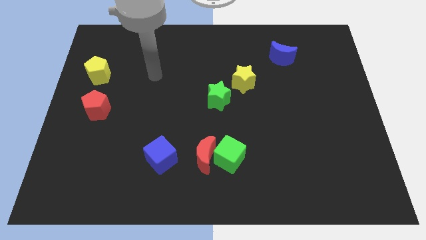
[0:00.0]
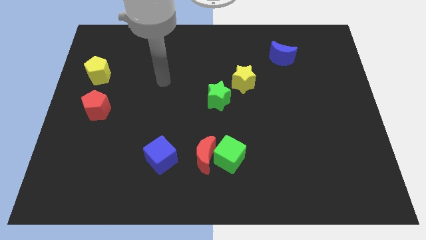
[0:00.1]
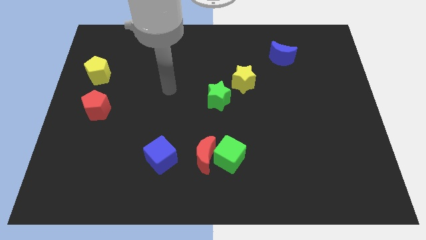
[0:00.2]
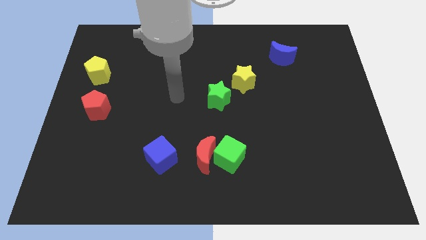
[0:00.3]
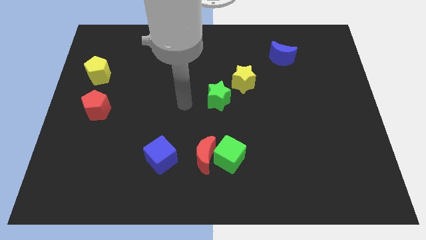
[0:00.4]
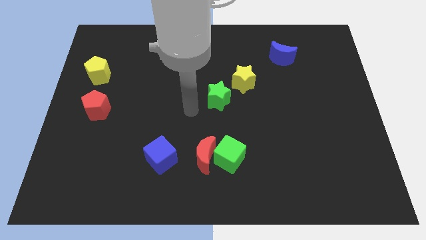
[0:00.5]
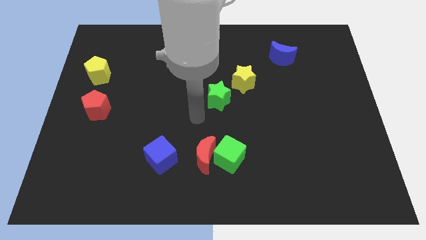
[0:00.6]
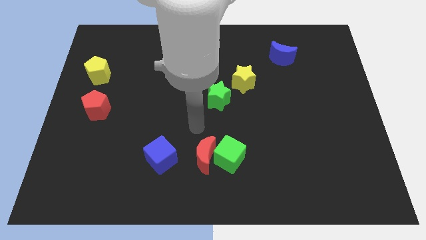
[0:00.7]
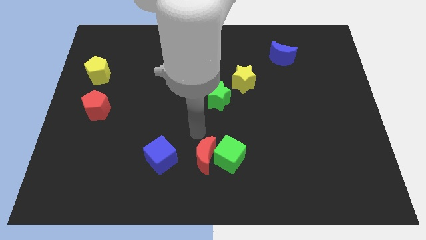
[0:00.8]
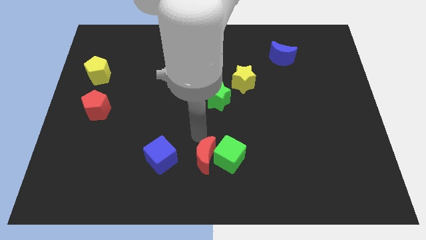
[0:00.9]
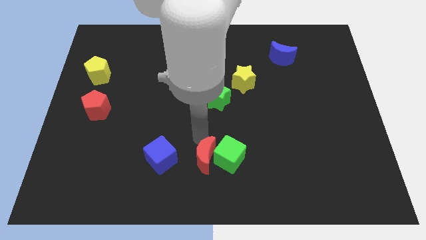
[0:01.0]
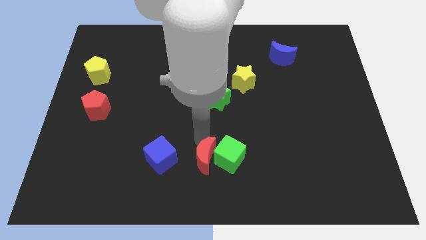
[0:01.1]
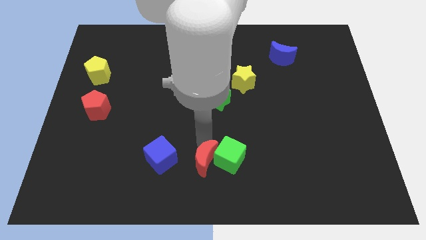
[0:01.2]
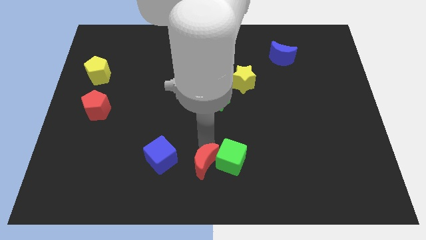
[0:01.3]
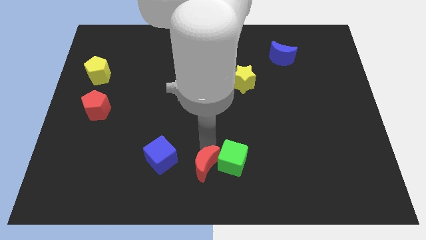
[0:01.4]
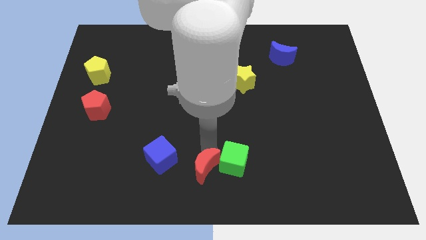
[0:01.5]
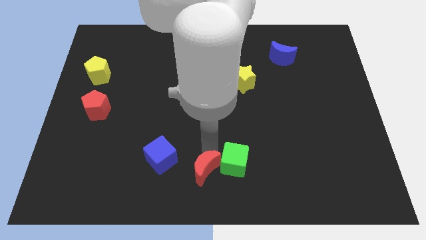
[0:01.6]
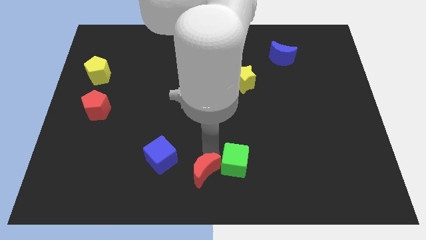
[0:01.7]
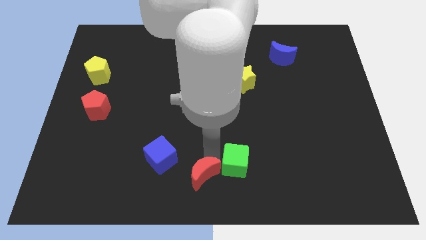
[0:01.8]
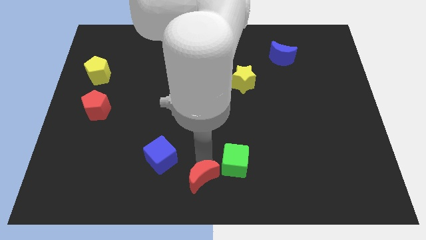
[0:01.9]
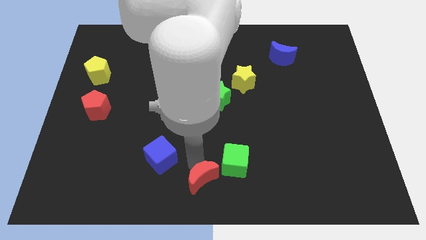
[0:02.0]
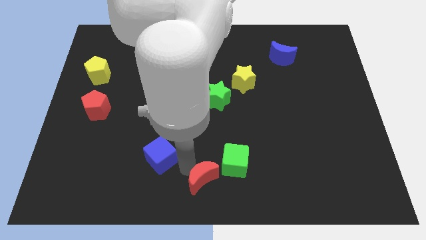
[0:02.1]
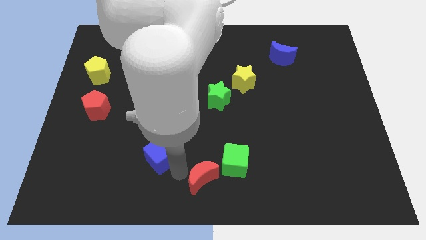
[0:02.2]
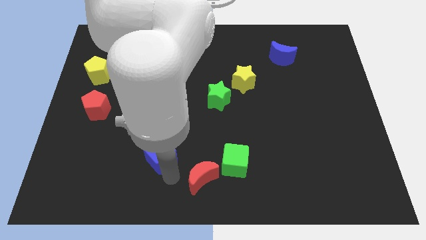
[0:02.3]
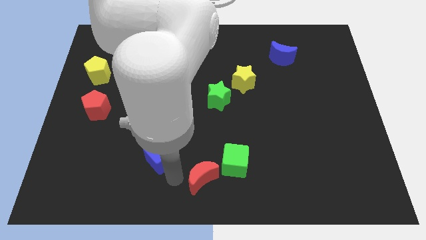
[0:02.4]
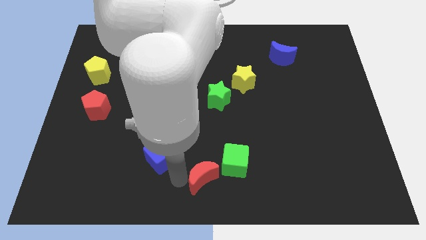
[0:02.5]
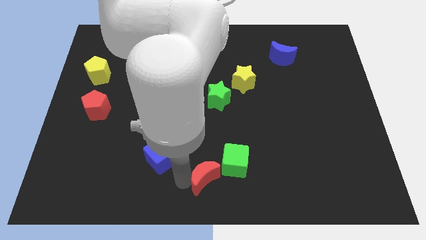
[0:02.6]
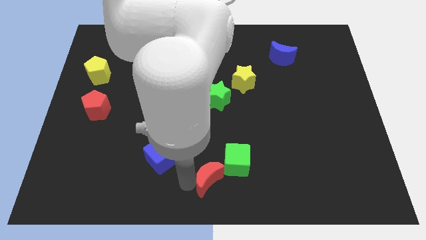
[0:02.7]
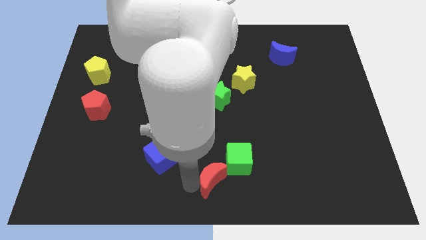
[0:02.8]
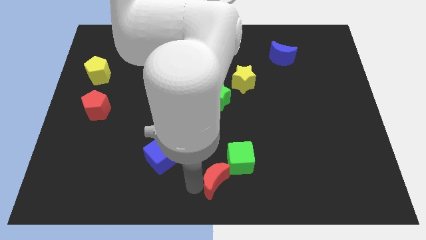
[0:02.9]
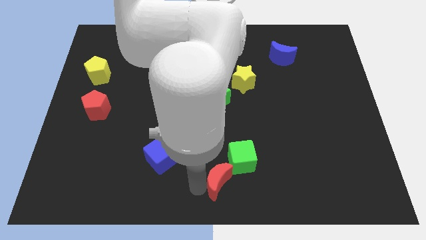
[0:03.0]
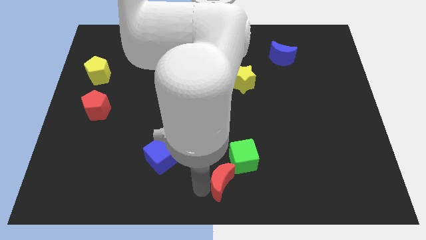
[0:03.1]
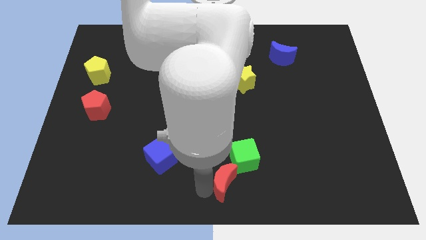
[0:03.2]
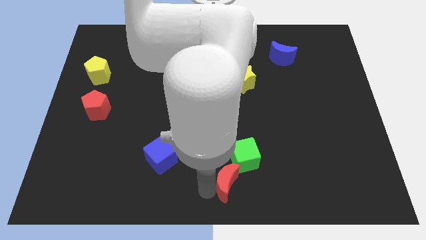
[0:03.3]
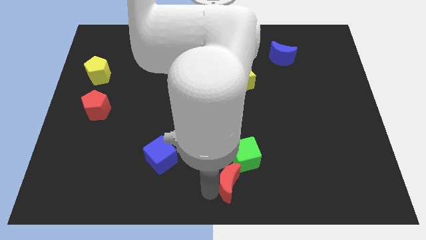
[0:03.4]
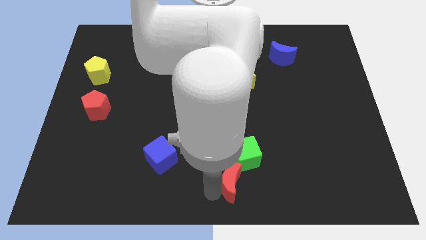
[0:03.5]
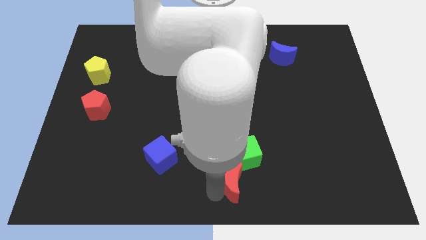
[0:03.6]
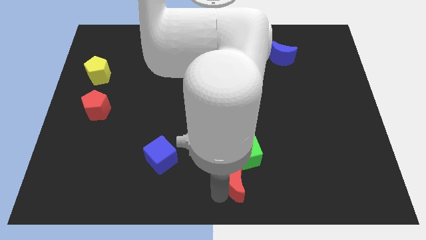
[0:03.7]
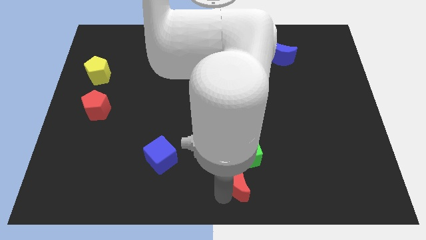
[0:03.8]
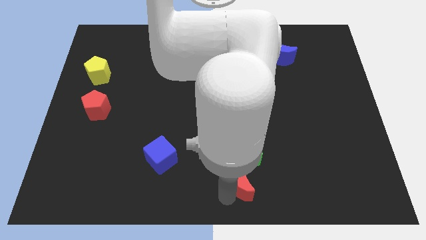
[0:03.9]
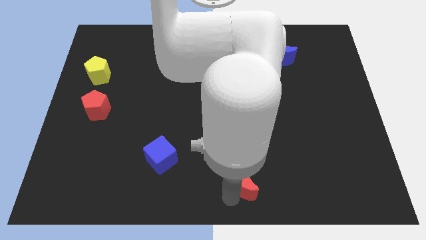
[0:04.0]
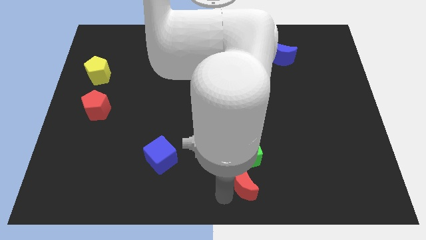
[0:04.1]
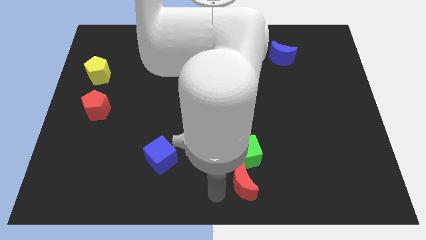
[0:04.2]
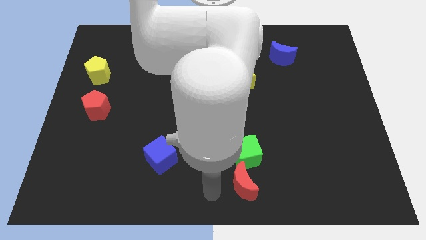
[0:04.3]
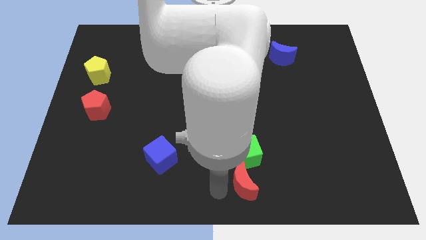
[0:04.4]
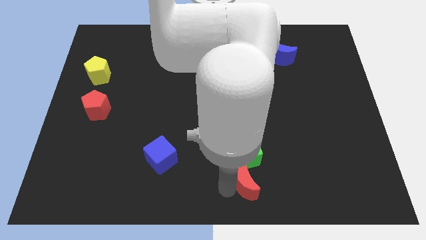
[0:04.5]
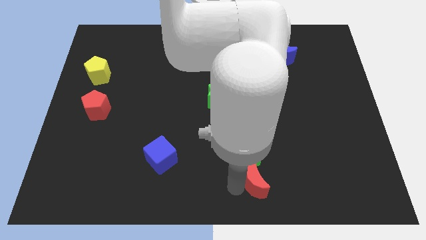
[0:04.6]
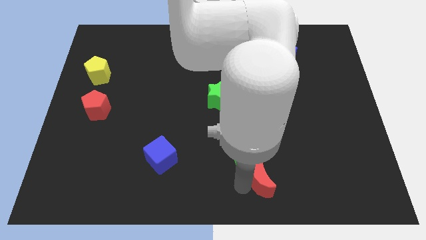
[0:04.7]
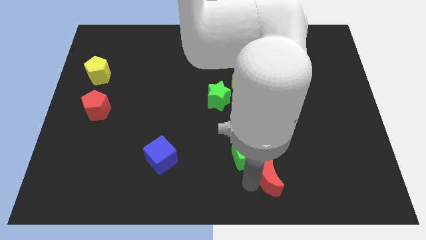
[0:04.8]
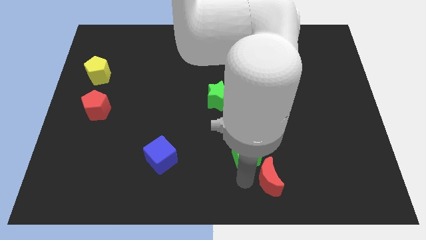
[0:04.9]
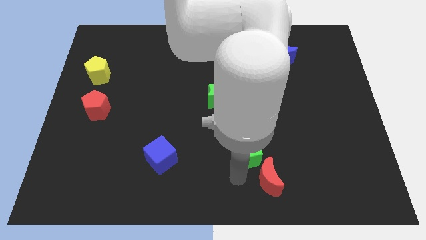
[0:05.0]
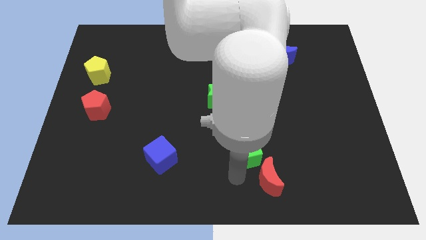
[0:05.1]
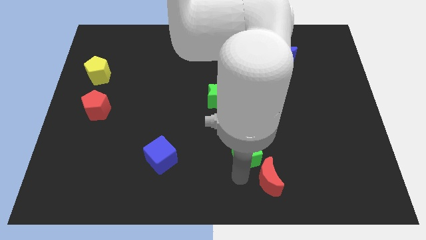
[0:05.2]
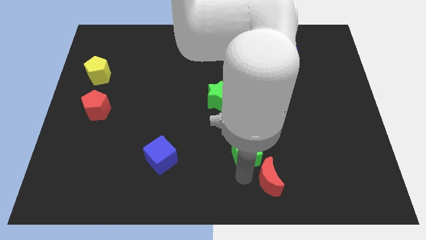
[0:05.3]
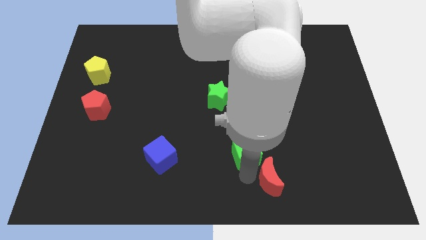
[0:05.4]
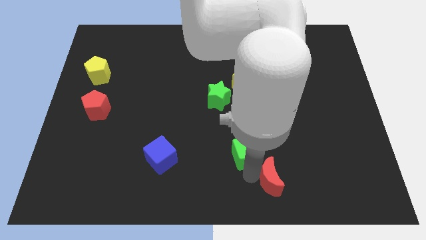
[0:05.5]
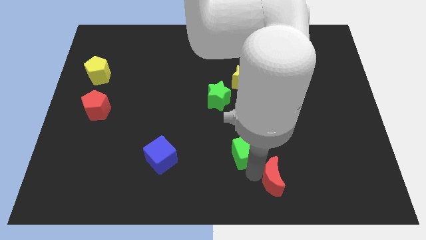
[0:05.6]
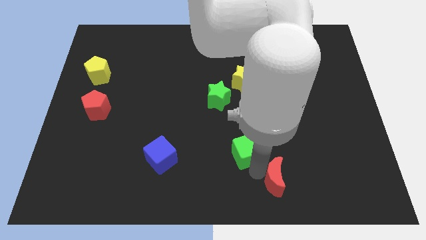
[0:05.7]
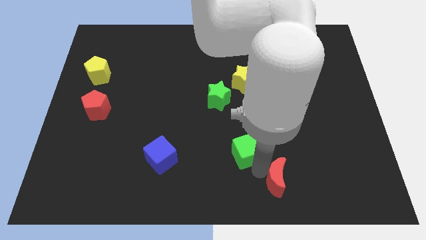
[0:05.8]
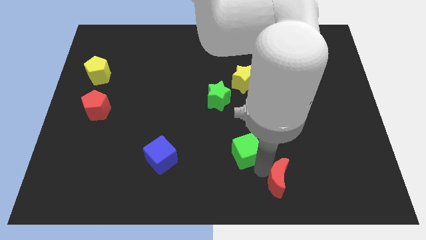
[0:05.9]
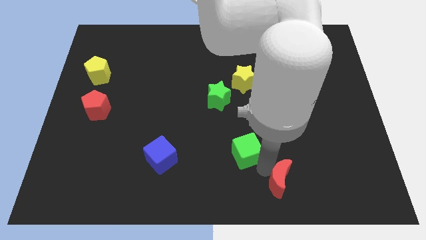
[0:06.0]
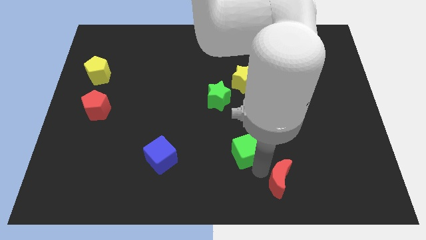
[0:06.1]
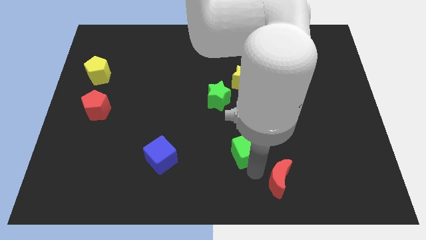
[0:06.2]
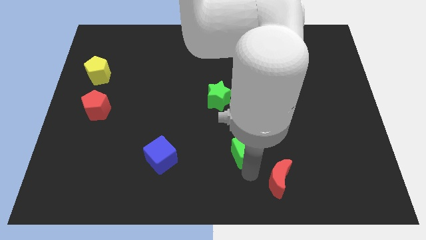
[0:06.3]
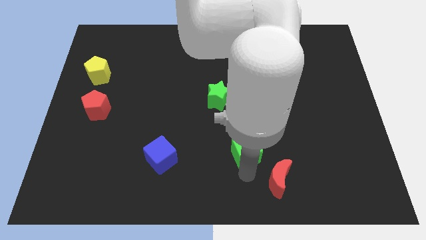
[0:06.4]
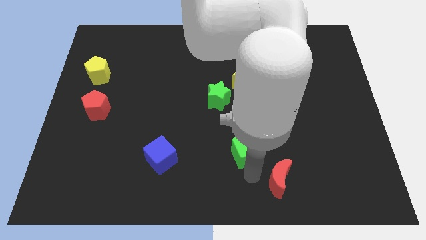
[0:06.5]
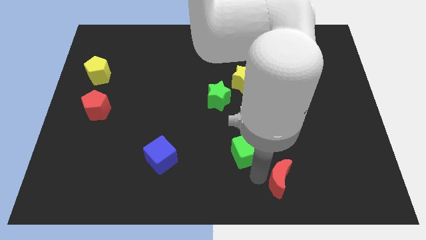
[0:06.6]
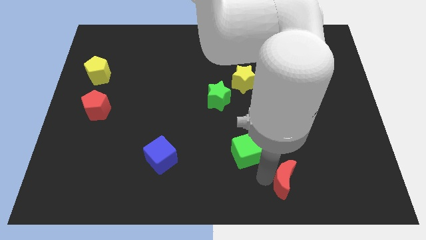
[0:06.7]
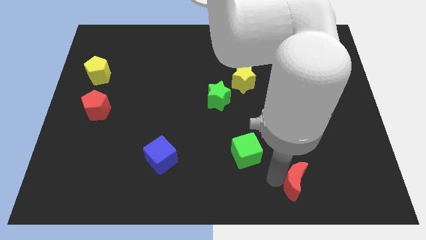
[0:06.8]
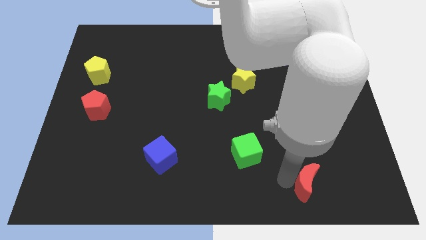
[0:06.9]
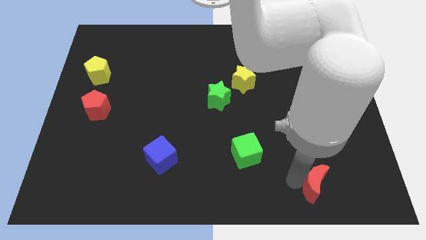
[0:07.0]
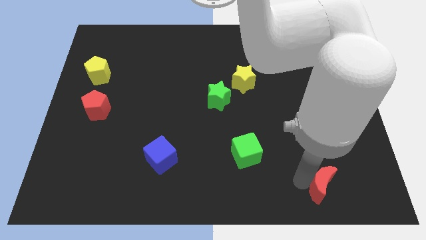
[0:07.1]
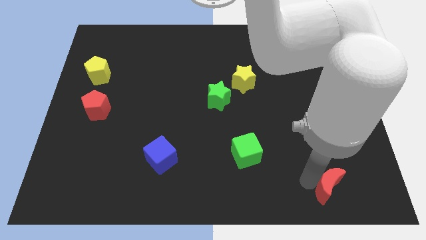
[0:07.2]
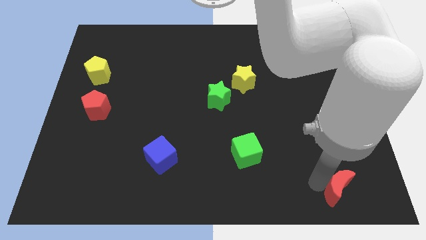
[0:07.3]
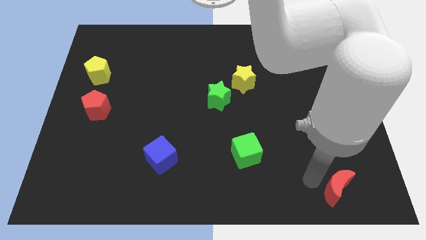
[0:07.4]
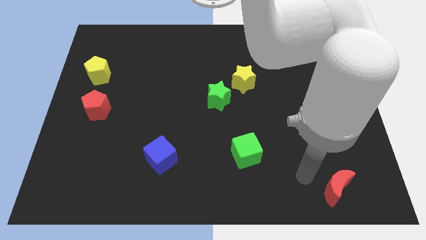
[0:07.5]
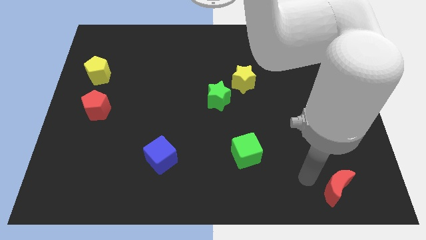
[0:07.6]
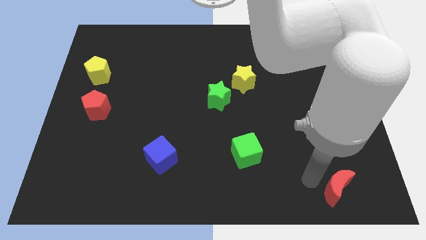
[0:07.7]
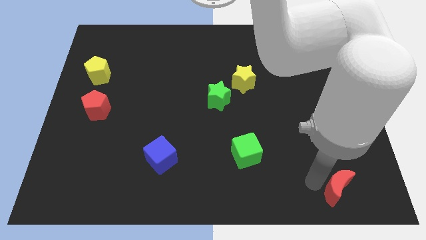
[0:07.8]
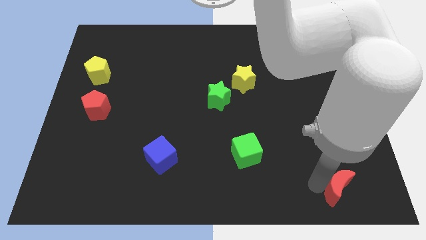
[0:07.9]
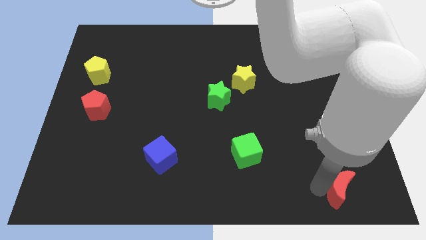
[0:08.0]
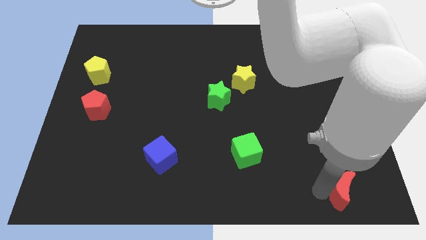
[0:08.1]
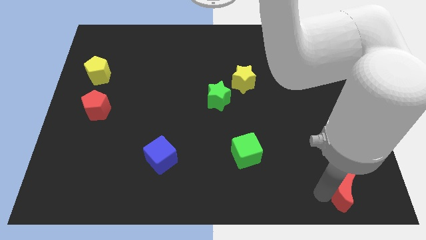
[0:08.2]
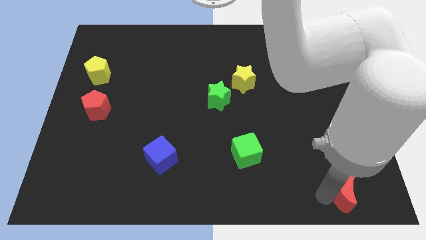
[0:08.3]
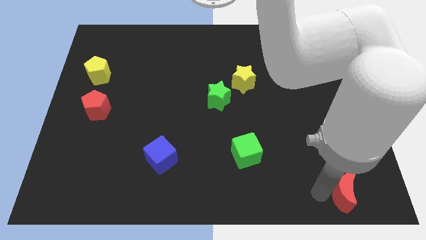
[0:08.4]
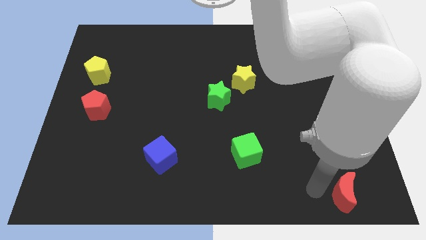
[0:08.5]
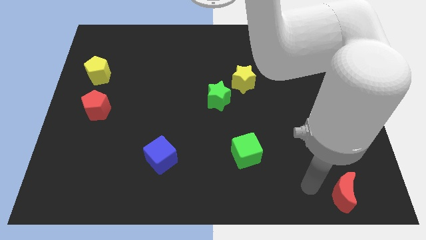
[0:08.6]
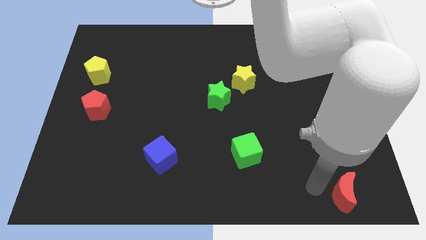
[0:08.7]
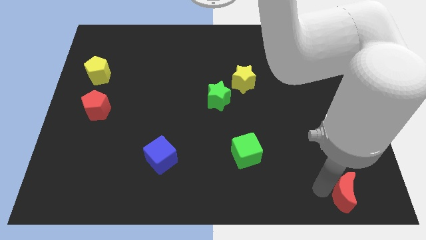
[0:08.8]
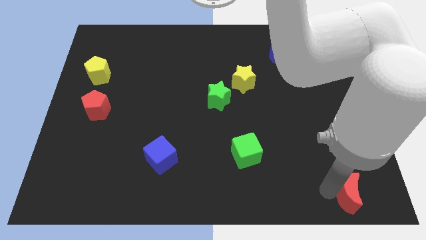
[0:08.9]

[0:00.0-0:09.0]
push the red moon to the bottom right of the board
